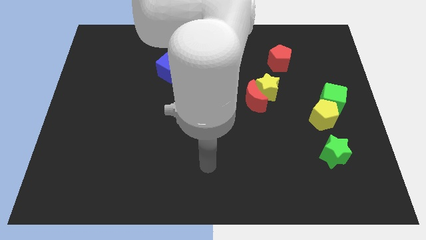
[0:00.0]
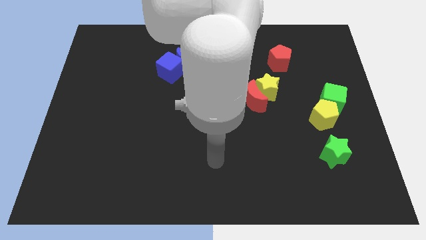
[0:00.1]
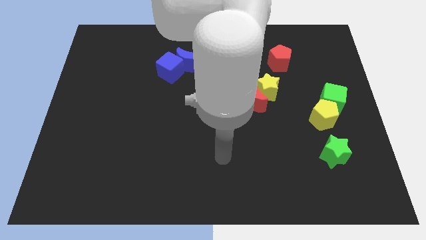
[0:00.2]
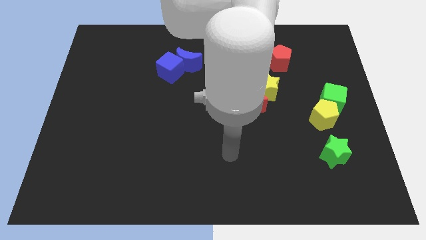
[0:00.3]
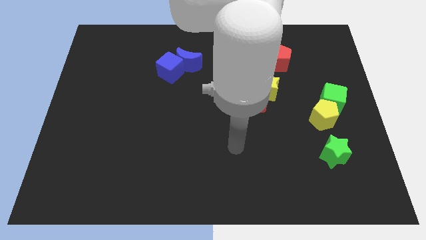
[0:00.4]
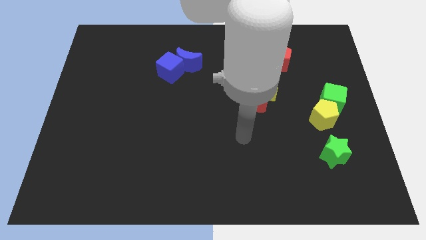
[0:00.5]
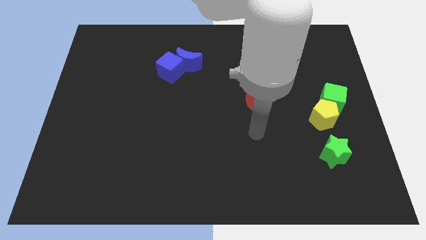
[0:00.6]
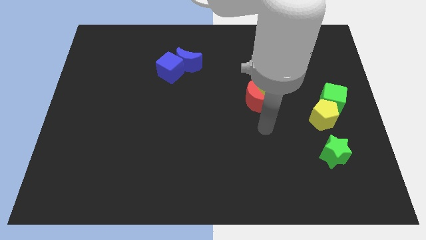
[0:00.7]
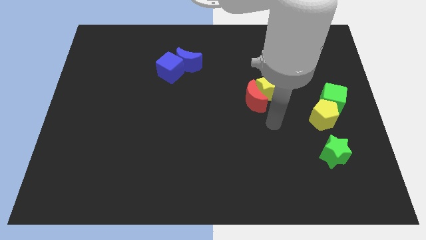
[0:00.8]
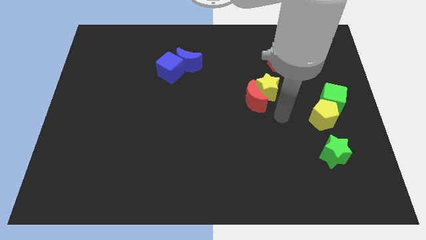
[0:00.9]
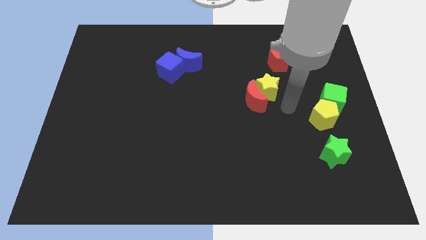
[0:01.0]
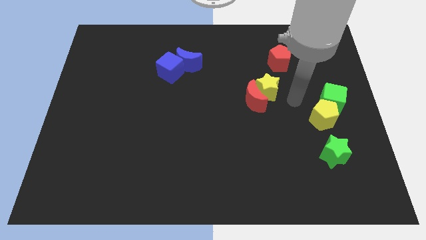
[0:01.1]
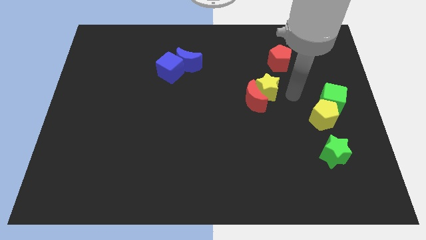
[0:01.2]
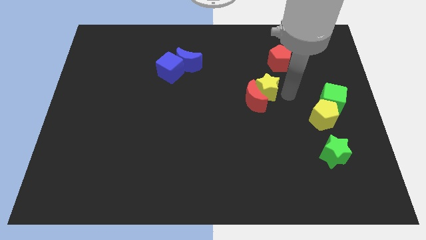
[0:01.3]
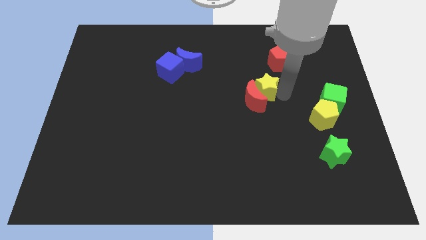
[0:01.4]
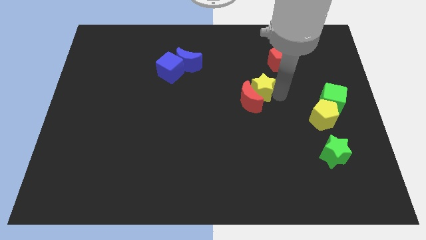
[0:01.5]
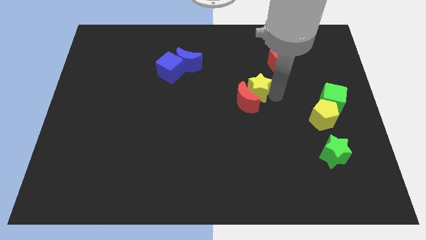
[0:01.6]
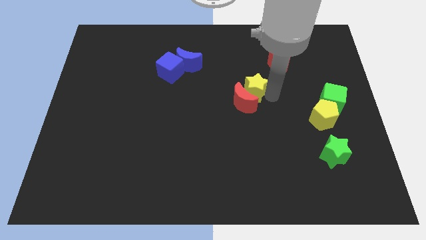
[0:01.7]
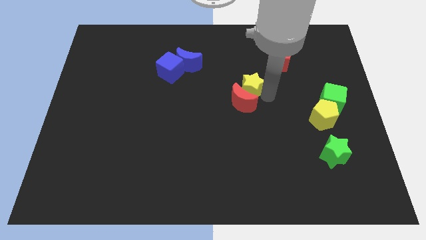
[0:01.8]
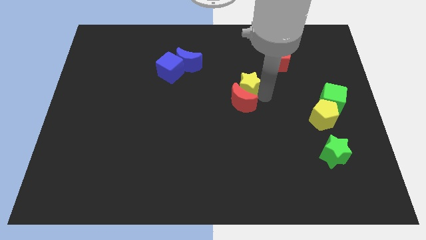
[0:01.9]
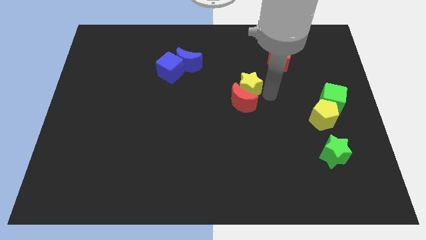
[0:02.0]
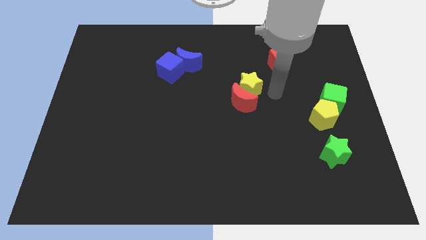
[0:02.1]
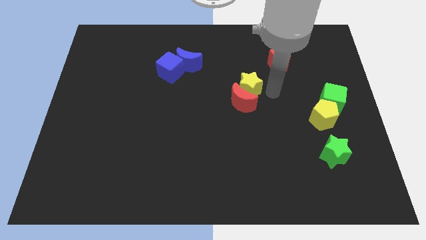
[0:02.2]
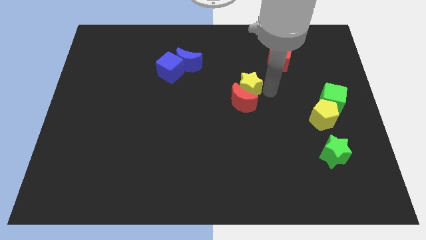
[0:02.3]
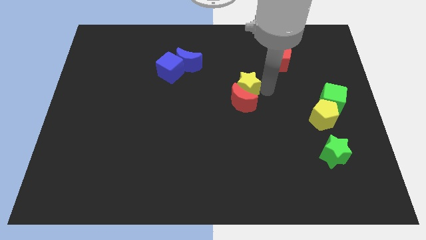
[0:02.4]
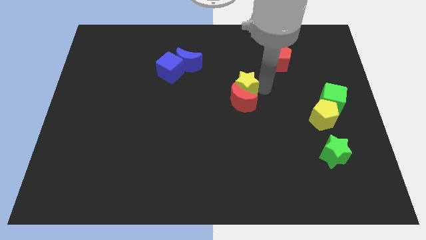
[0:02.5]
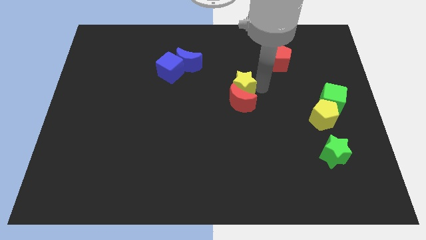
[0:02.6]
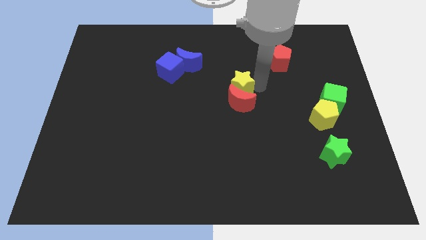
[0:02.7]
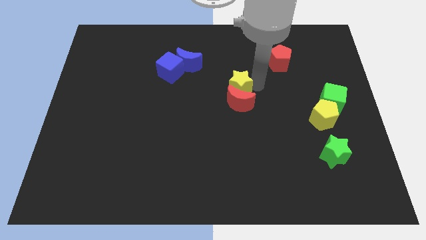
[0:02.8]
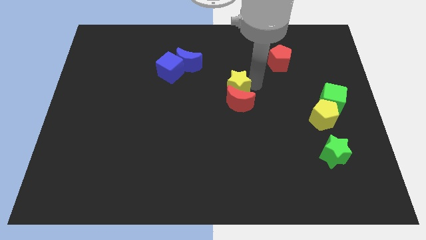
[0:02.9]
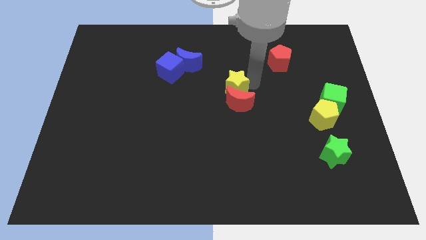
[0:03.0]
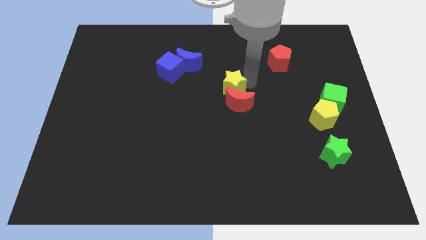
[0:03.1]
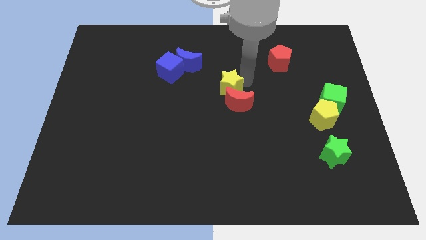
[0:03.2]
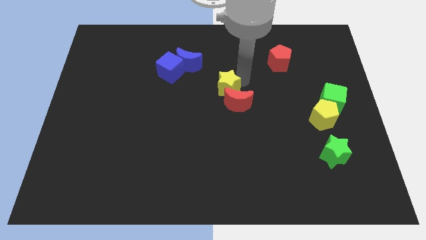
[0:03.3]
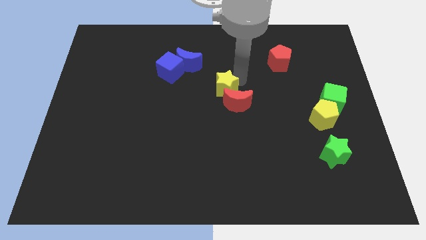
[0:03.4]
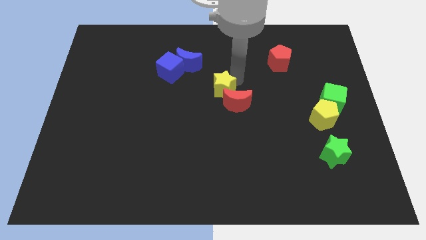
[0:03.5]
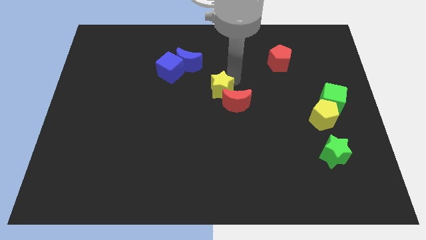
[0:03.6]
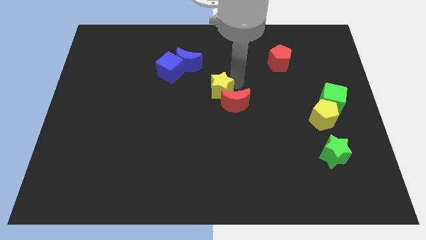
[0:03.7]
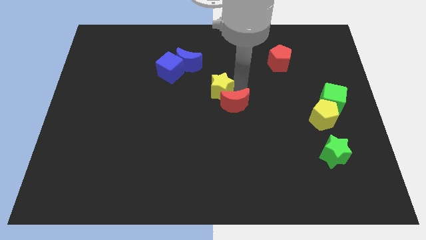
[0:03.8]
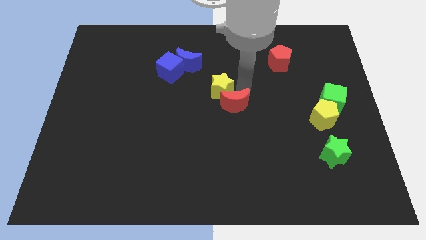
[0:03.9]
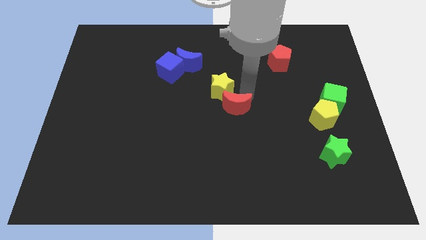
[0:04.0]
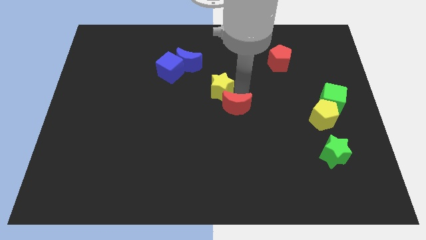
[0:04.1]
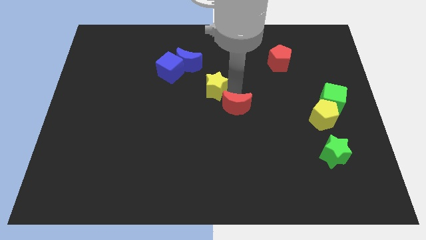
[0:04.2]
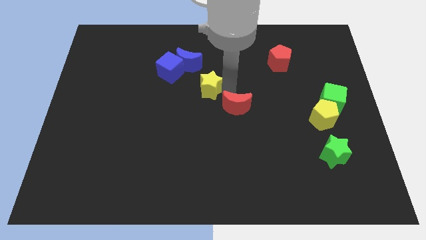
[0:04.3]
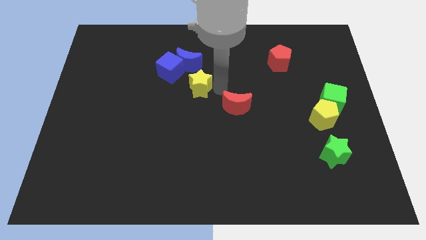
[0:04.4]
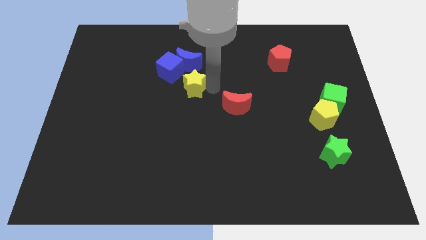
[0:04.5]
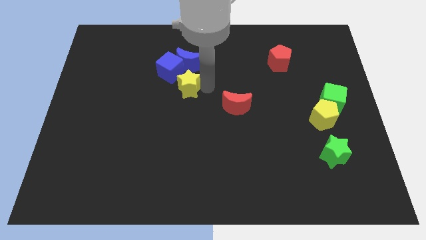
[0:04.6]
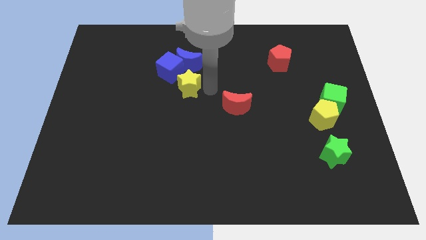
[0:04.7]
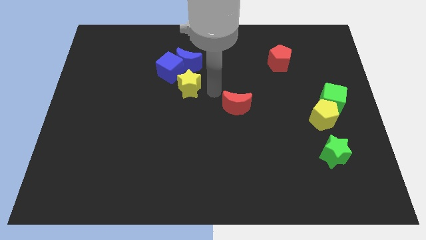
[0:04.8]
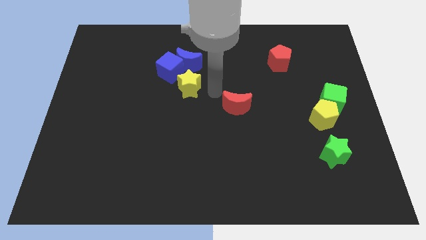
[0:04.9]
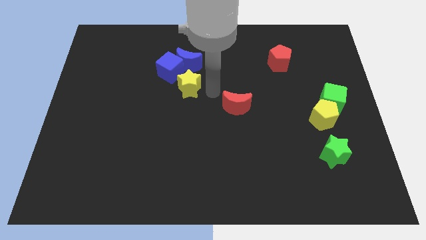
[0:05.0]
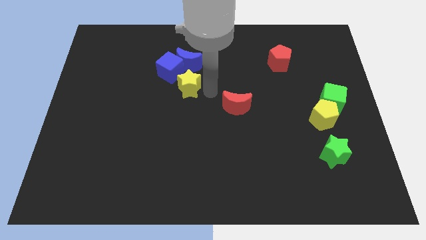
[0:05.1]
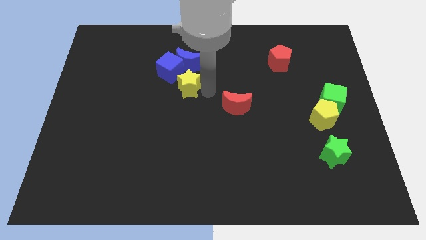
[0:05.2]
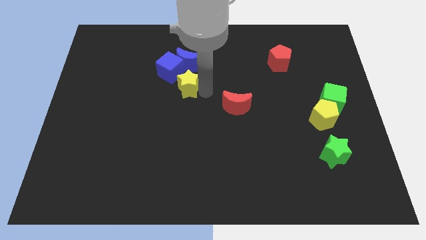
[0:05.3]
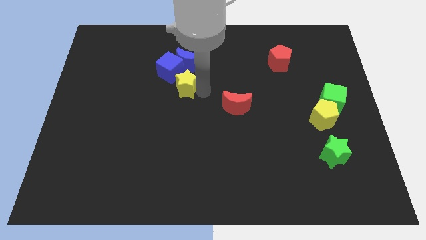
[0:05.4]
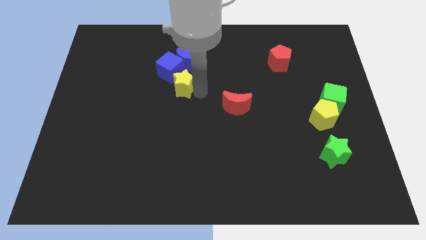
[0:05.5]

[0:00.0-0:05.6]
move the yellow star left

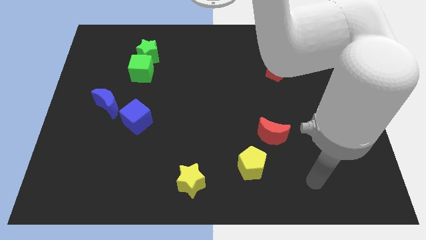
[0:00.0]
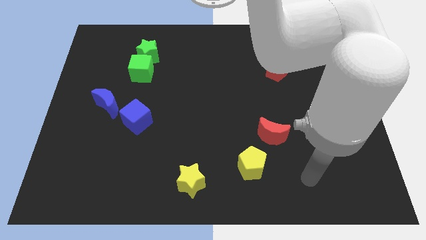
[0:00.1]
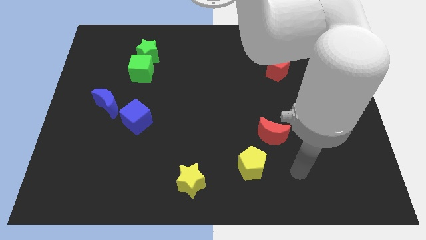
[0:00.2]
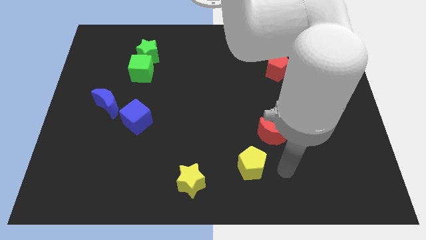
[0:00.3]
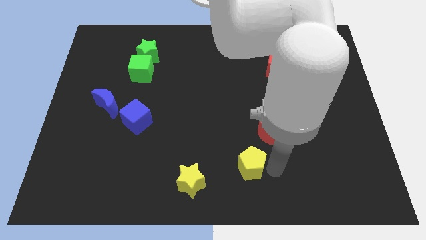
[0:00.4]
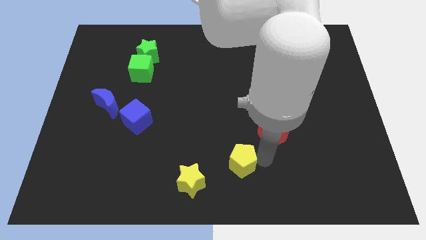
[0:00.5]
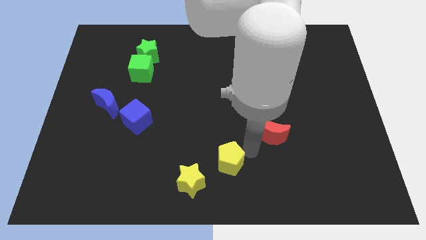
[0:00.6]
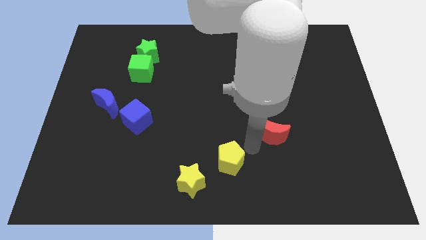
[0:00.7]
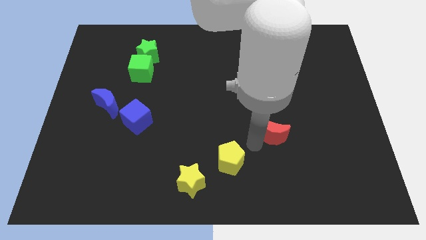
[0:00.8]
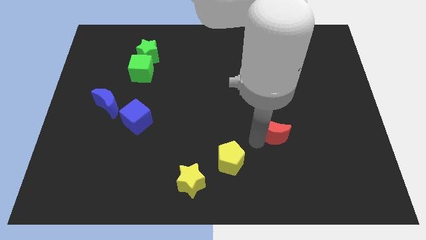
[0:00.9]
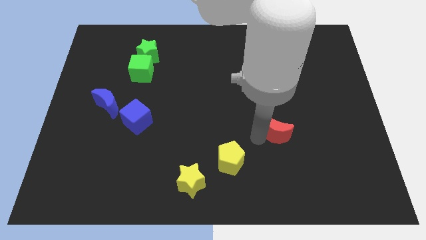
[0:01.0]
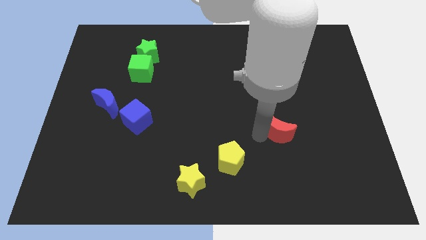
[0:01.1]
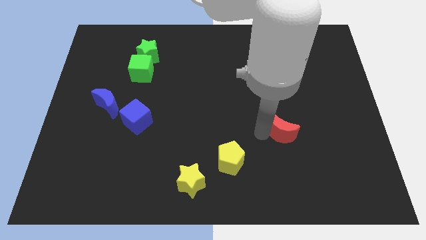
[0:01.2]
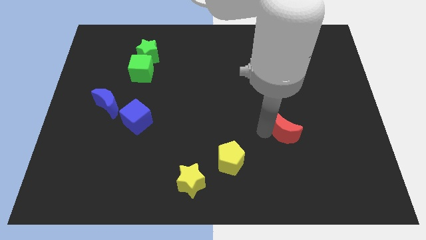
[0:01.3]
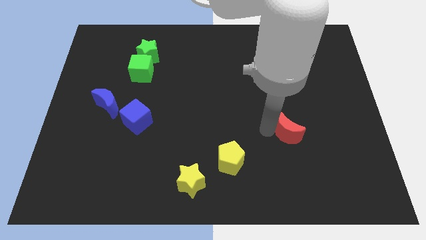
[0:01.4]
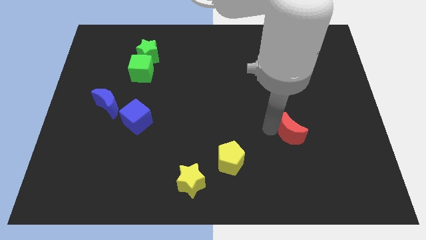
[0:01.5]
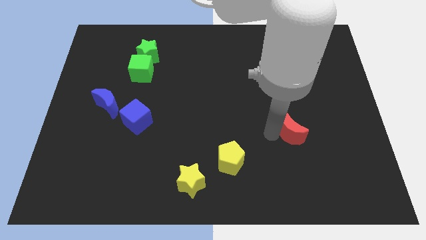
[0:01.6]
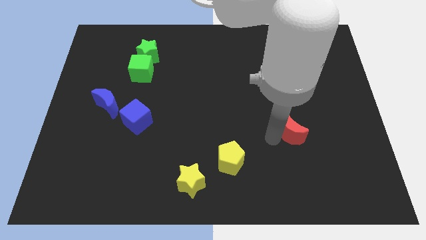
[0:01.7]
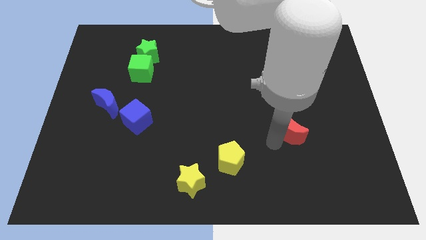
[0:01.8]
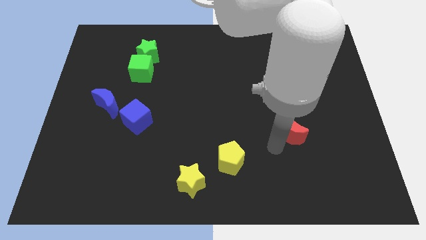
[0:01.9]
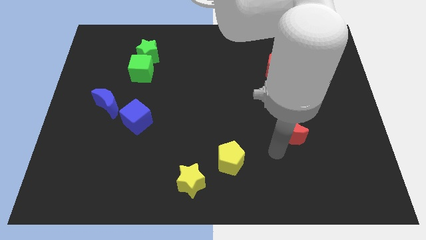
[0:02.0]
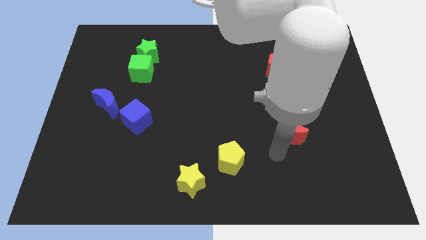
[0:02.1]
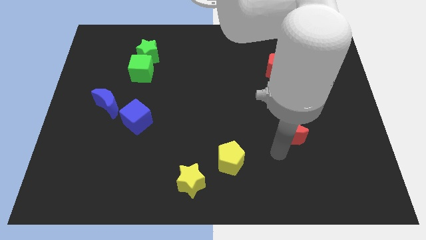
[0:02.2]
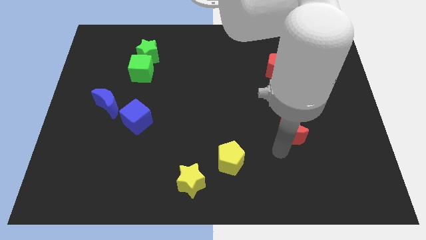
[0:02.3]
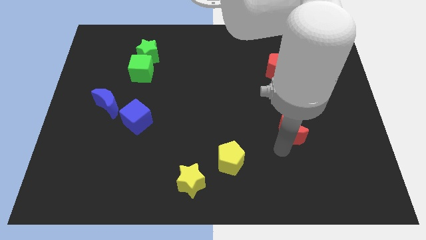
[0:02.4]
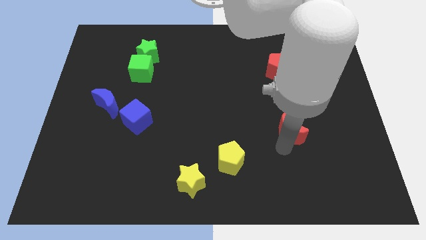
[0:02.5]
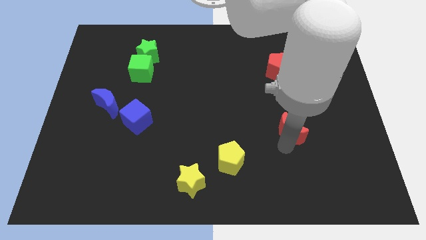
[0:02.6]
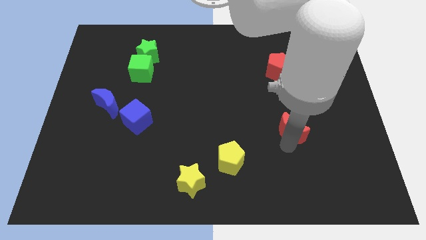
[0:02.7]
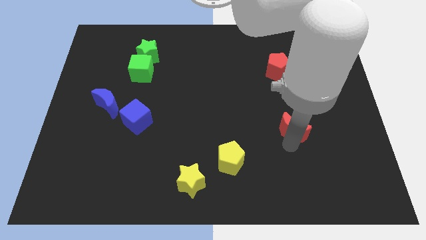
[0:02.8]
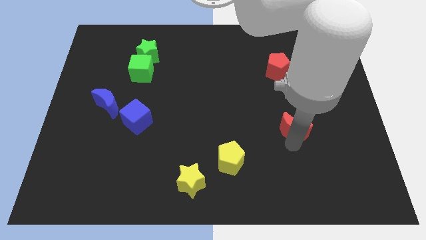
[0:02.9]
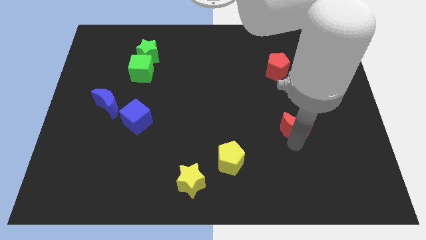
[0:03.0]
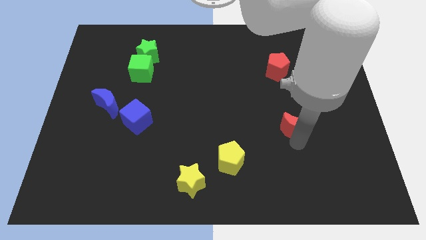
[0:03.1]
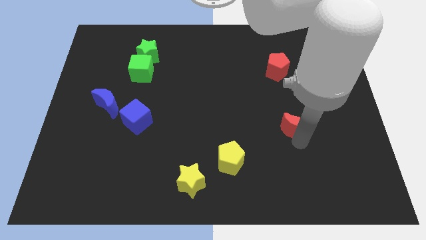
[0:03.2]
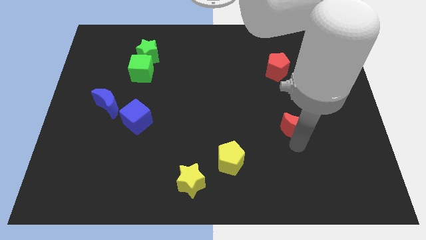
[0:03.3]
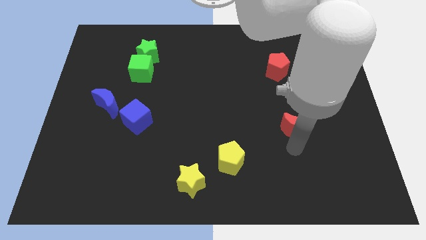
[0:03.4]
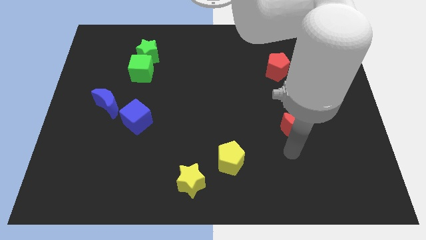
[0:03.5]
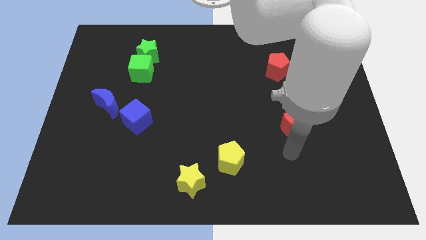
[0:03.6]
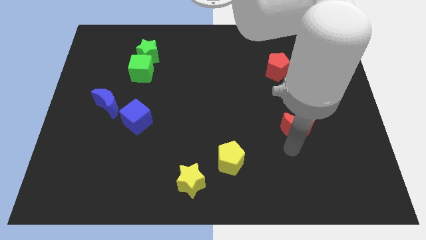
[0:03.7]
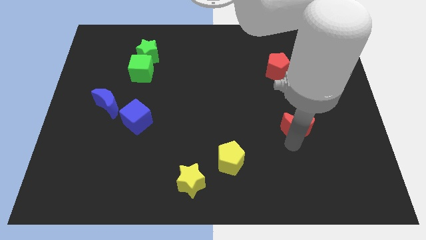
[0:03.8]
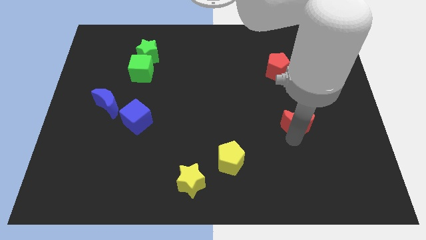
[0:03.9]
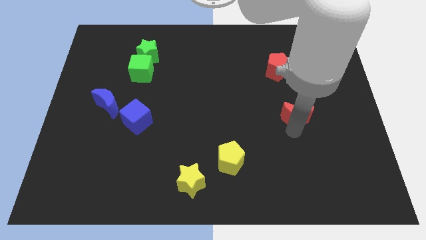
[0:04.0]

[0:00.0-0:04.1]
slide the red moon a bit up and then to the right
